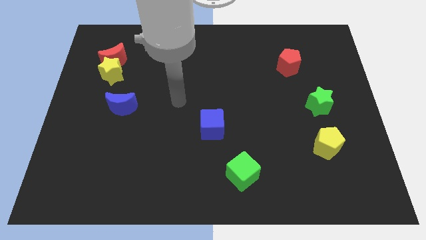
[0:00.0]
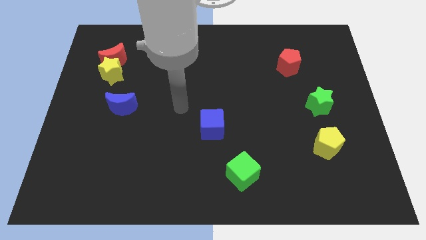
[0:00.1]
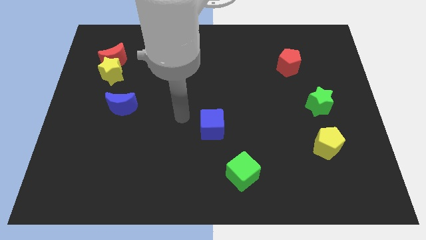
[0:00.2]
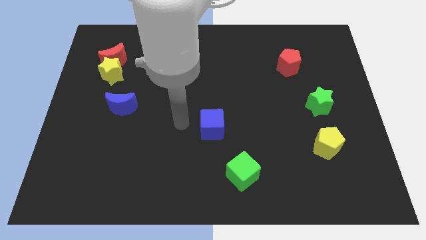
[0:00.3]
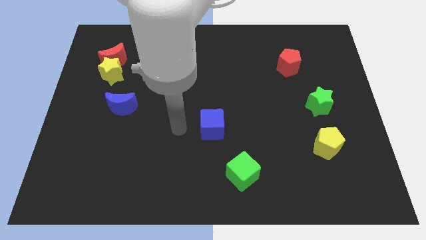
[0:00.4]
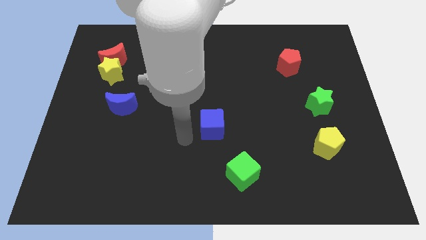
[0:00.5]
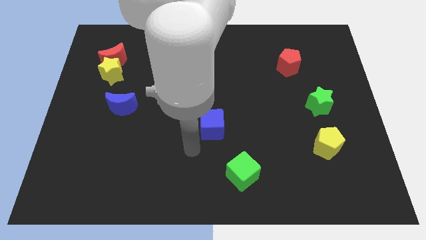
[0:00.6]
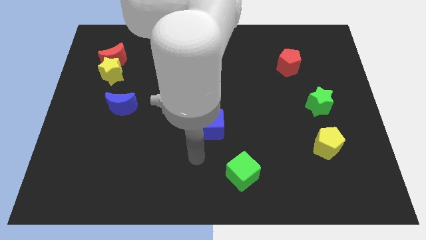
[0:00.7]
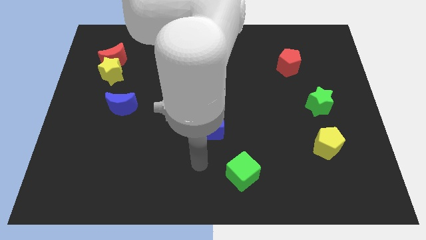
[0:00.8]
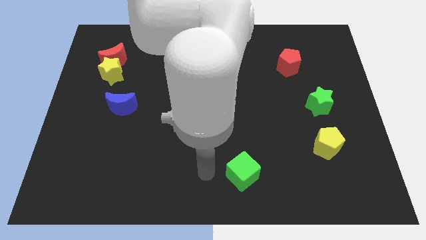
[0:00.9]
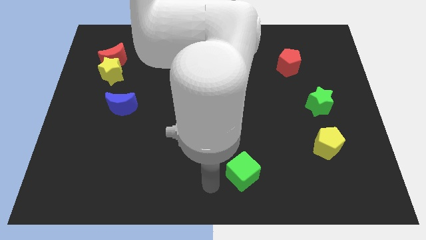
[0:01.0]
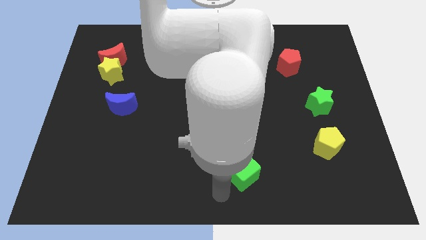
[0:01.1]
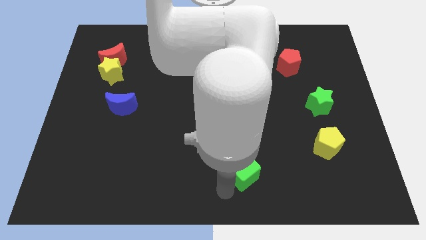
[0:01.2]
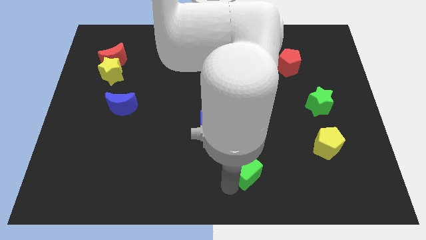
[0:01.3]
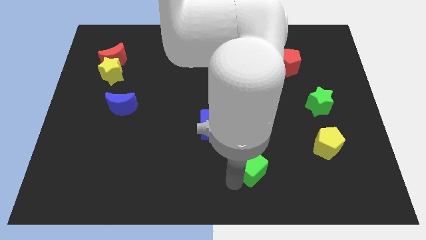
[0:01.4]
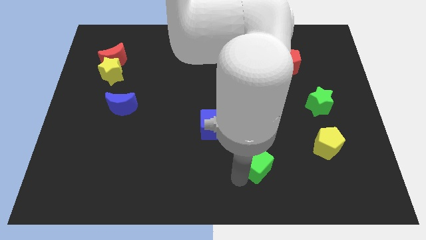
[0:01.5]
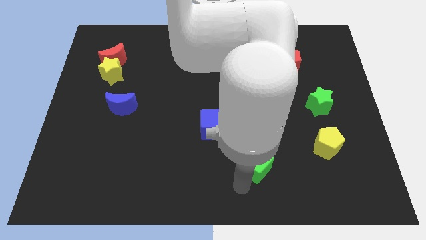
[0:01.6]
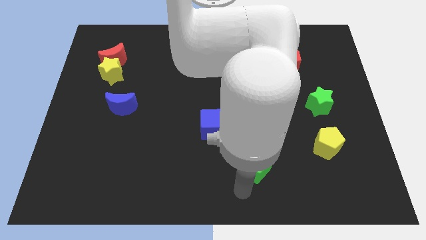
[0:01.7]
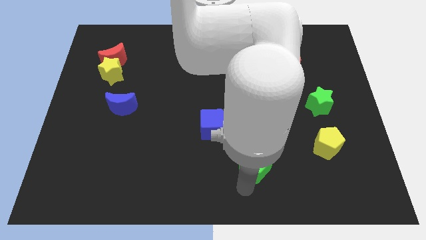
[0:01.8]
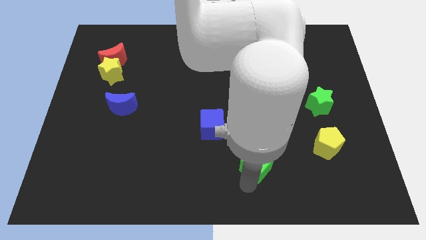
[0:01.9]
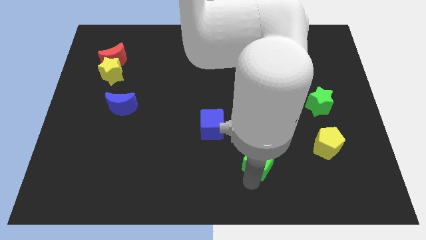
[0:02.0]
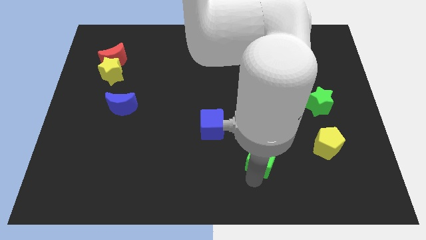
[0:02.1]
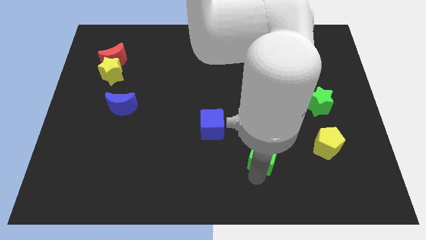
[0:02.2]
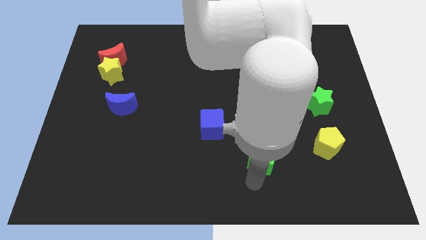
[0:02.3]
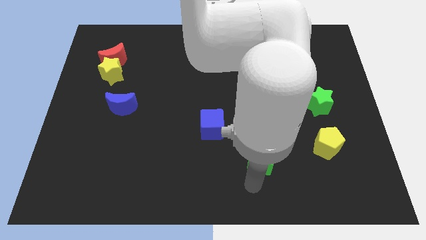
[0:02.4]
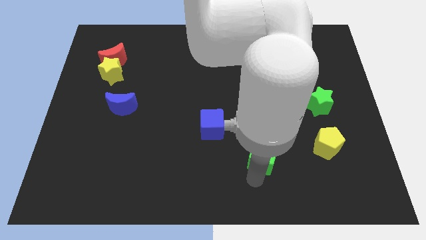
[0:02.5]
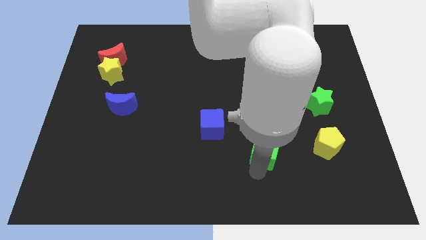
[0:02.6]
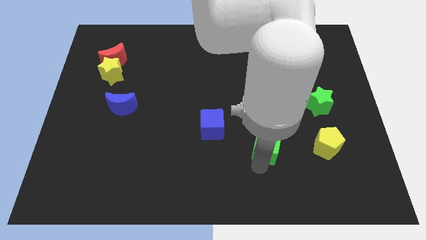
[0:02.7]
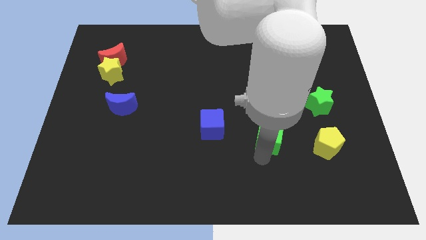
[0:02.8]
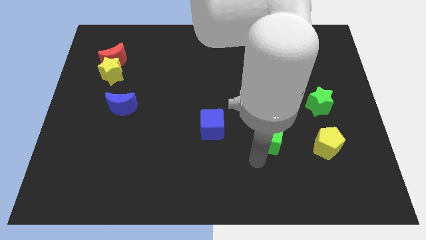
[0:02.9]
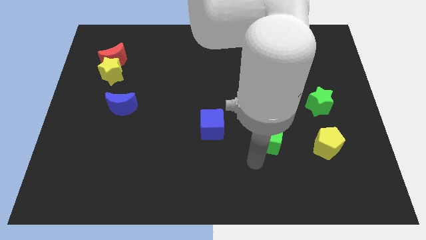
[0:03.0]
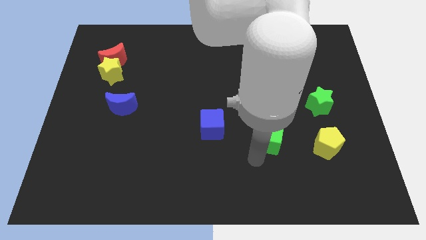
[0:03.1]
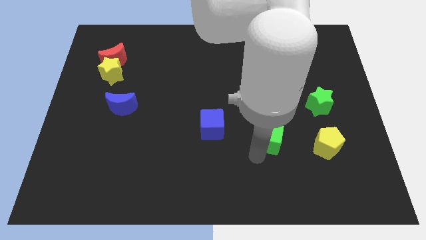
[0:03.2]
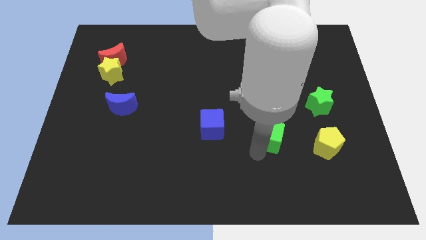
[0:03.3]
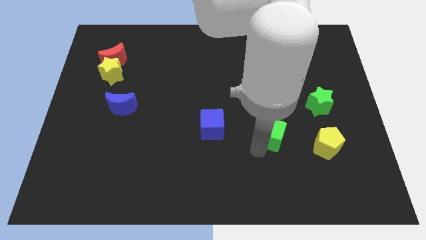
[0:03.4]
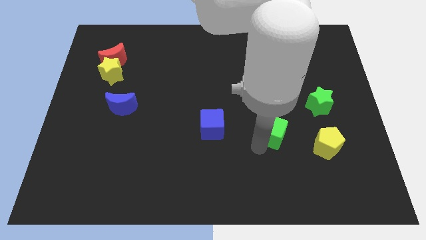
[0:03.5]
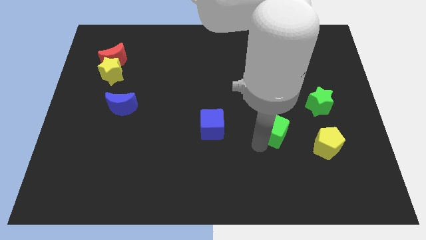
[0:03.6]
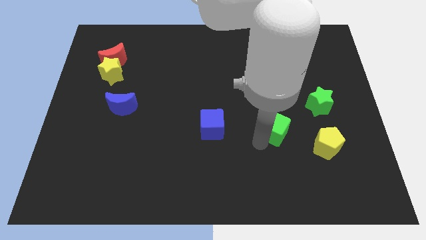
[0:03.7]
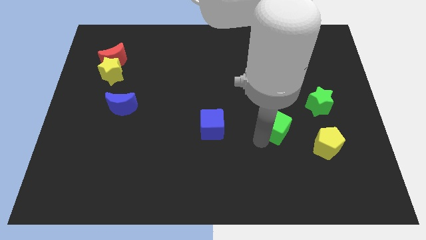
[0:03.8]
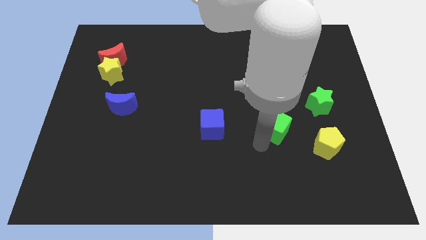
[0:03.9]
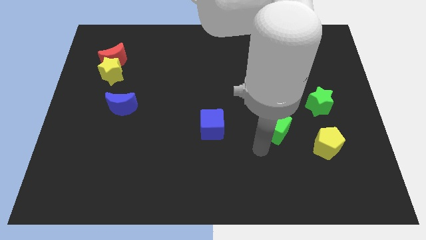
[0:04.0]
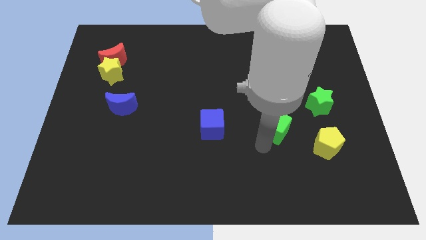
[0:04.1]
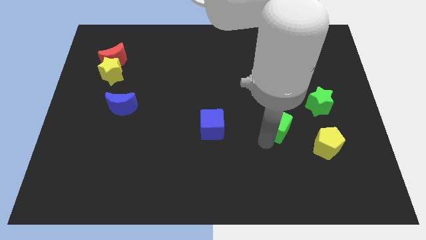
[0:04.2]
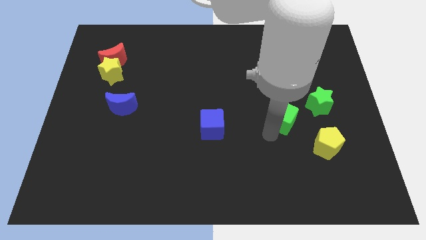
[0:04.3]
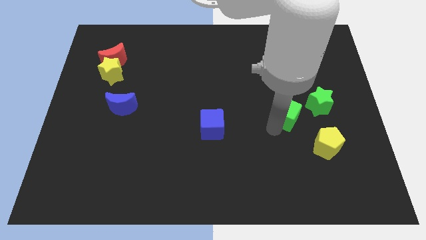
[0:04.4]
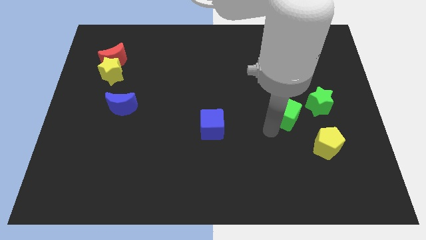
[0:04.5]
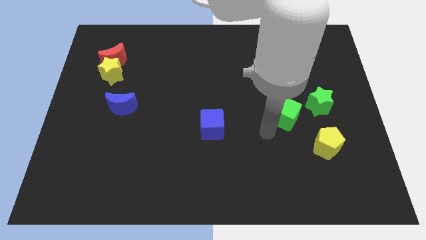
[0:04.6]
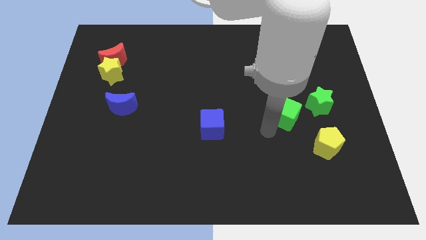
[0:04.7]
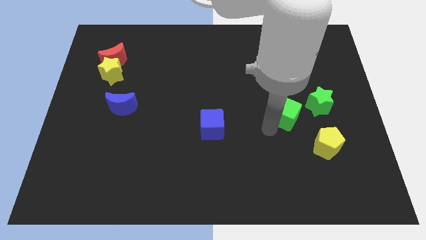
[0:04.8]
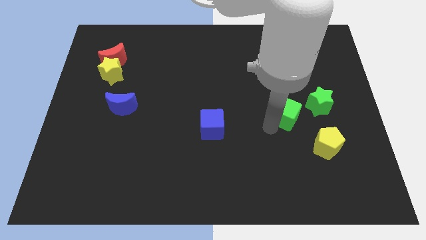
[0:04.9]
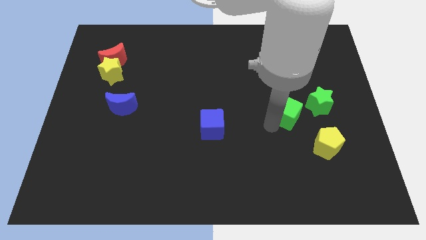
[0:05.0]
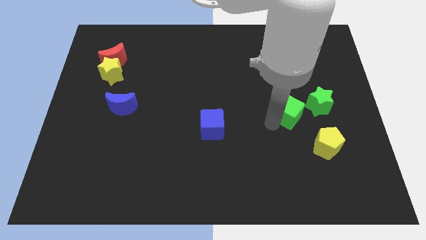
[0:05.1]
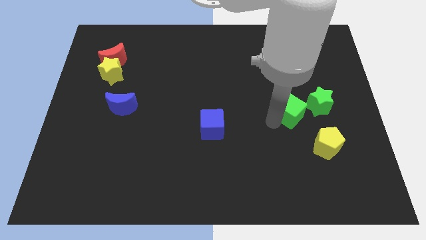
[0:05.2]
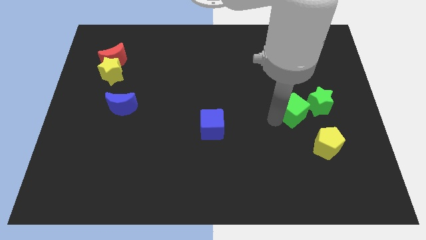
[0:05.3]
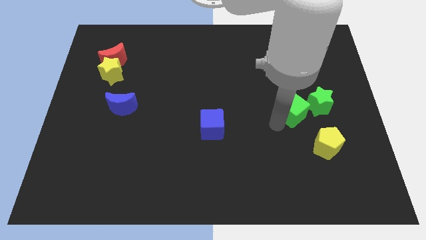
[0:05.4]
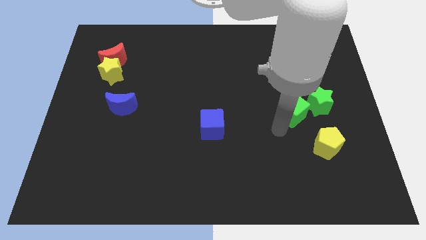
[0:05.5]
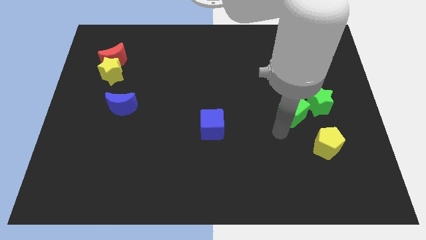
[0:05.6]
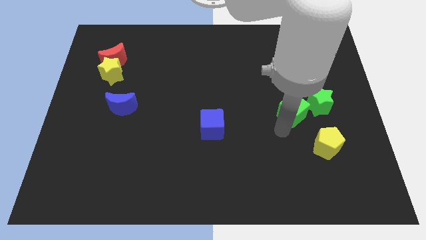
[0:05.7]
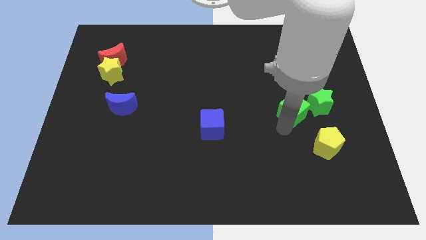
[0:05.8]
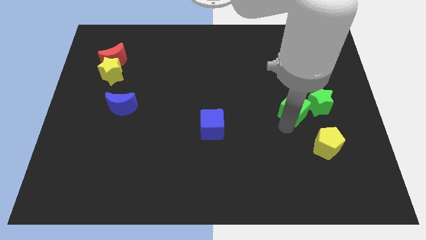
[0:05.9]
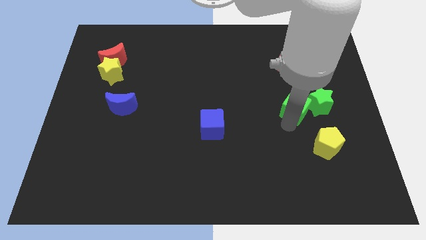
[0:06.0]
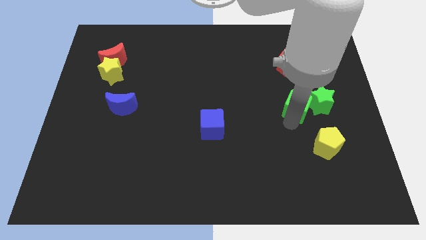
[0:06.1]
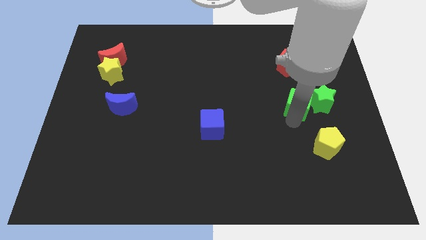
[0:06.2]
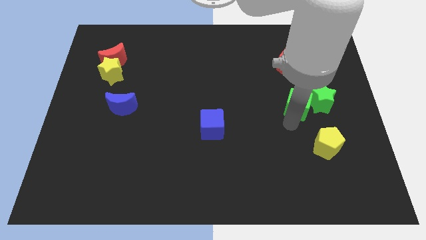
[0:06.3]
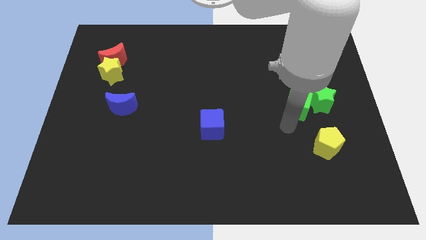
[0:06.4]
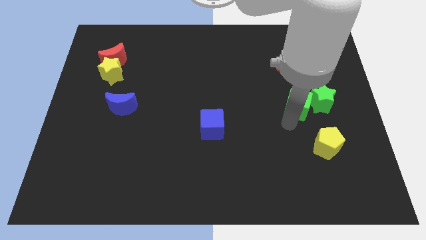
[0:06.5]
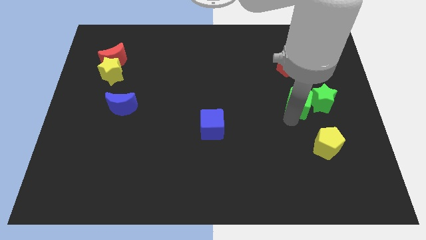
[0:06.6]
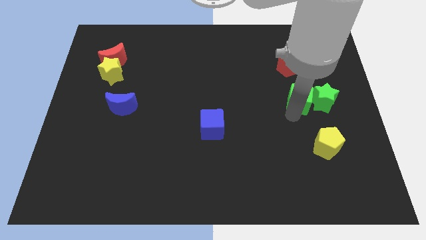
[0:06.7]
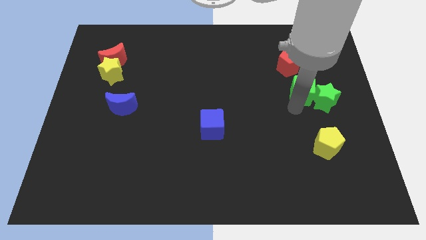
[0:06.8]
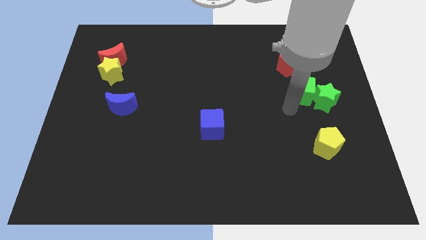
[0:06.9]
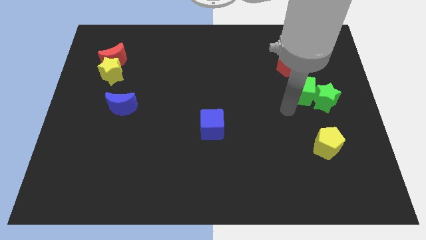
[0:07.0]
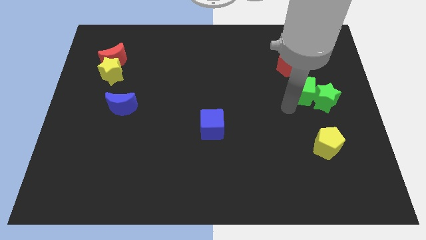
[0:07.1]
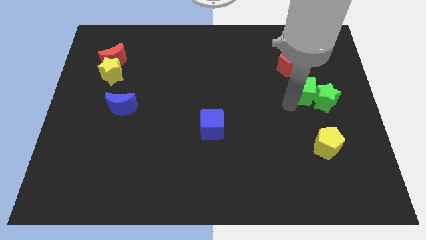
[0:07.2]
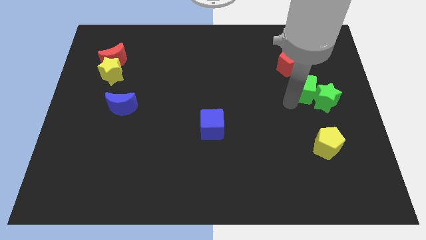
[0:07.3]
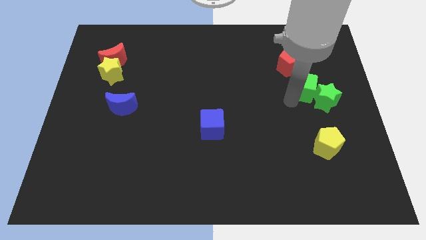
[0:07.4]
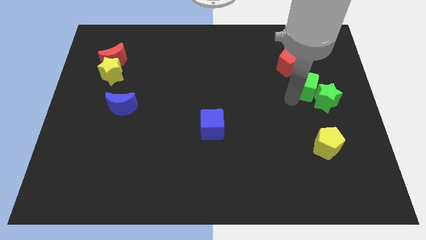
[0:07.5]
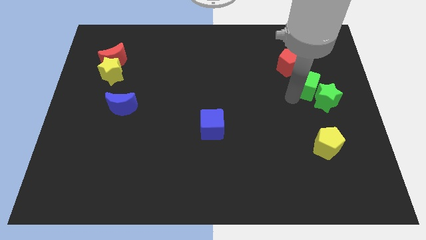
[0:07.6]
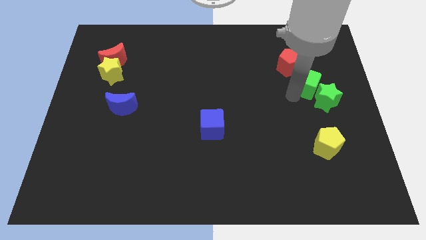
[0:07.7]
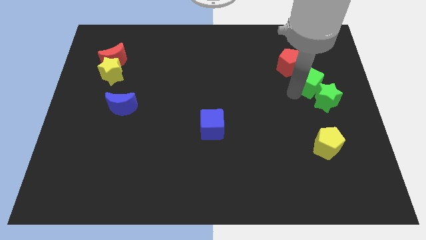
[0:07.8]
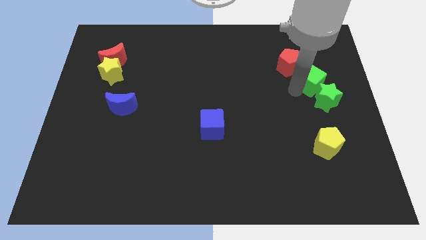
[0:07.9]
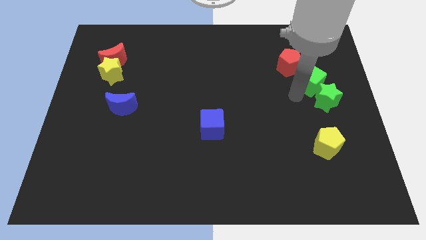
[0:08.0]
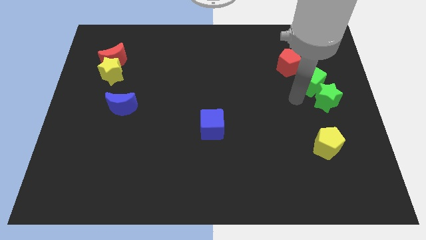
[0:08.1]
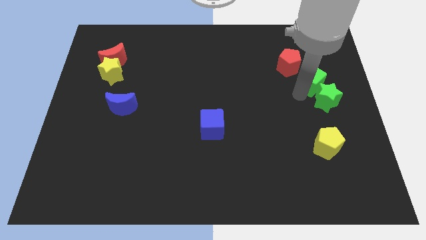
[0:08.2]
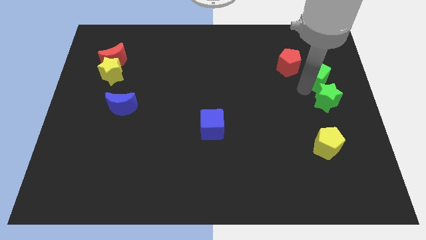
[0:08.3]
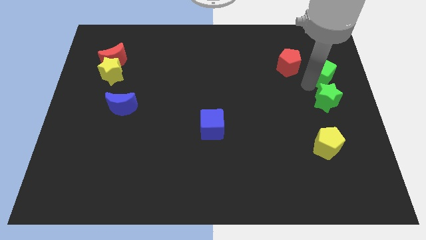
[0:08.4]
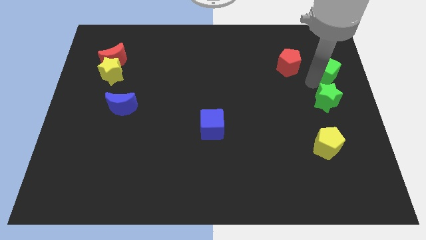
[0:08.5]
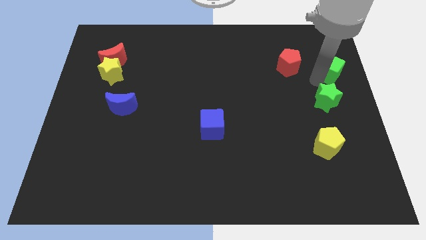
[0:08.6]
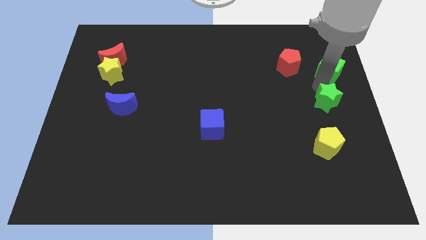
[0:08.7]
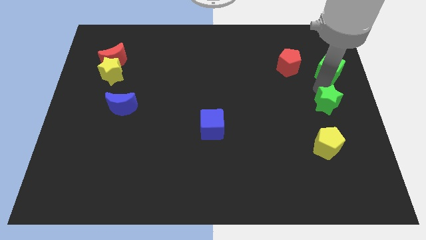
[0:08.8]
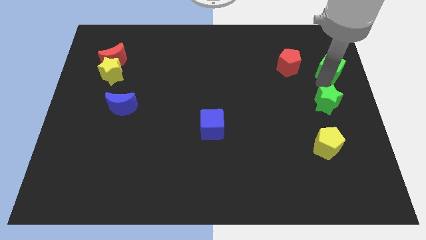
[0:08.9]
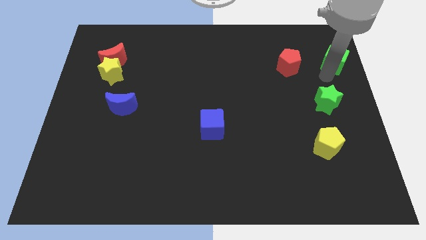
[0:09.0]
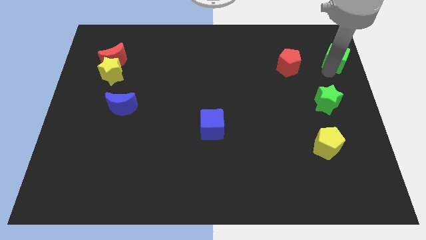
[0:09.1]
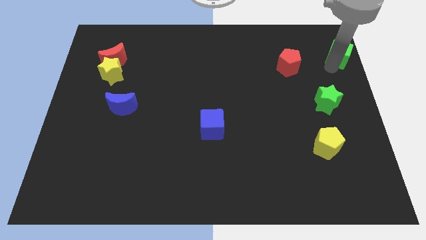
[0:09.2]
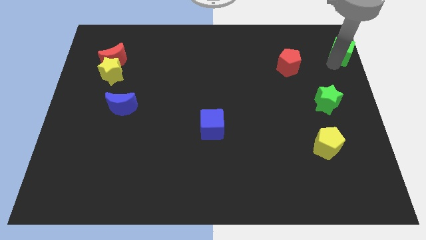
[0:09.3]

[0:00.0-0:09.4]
put the green cube to the top right
